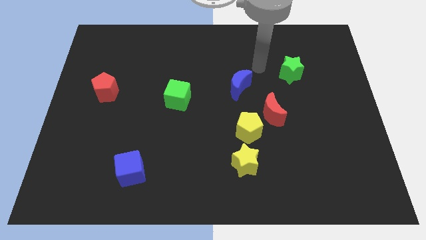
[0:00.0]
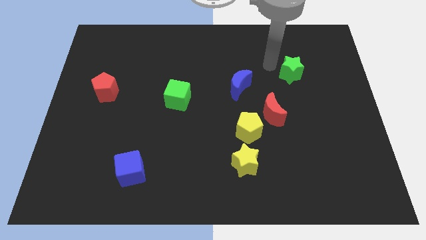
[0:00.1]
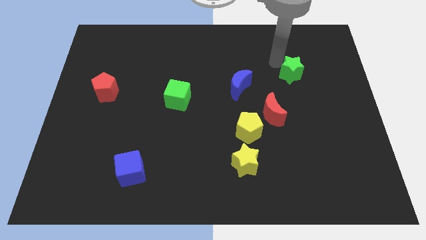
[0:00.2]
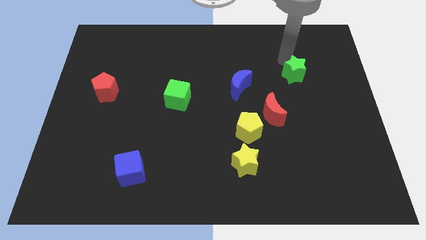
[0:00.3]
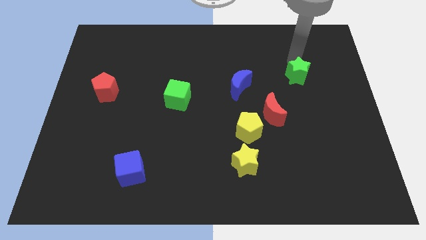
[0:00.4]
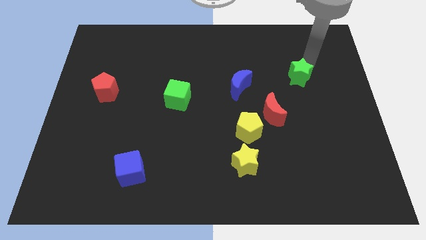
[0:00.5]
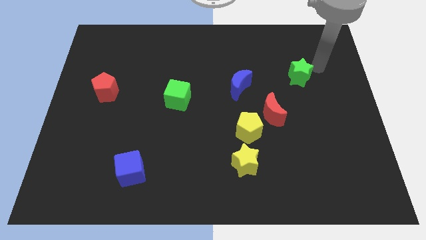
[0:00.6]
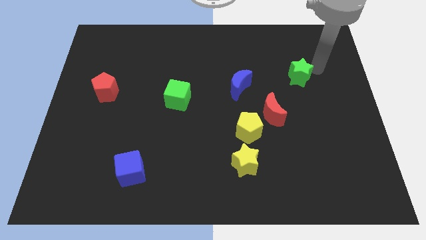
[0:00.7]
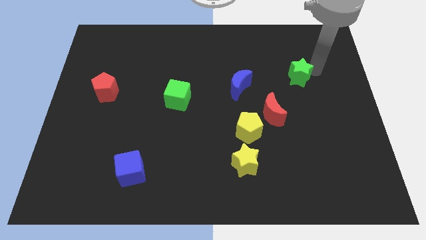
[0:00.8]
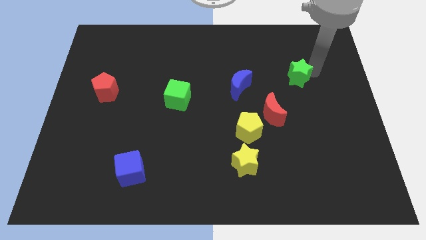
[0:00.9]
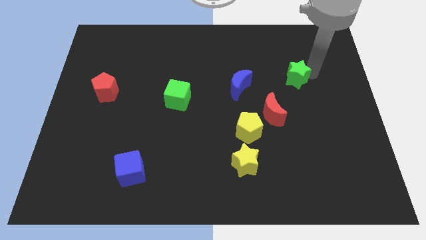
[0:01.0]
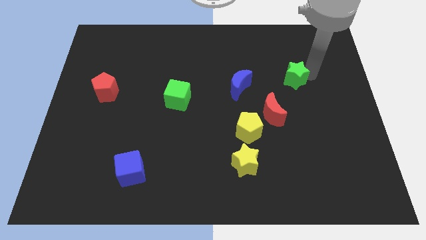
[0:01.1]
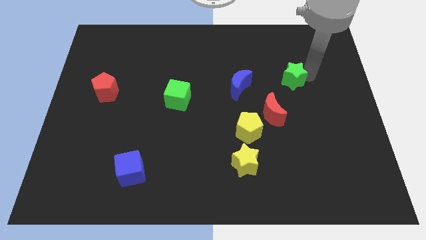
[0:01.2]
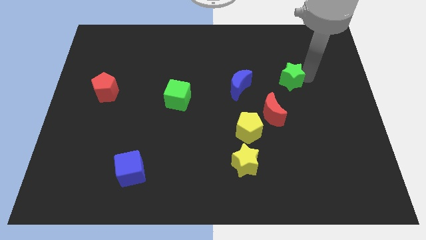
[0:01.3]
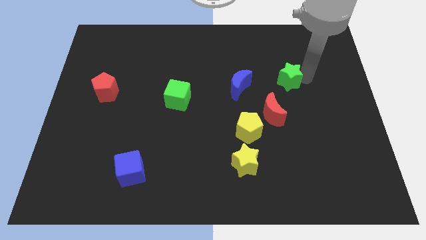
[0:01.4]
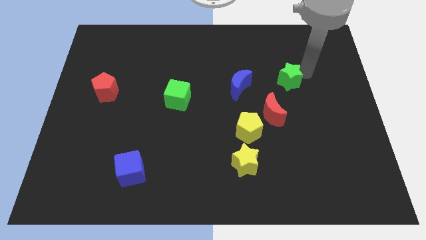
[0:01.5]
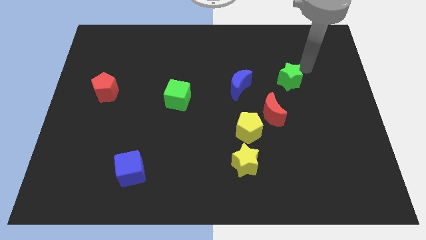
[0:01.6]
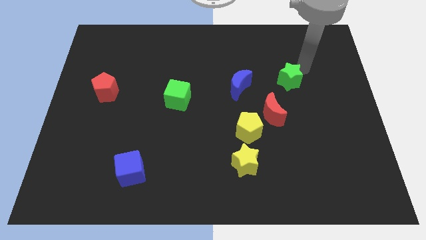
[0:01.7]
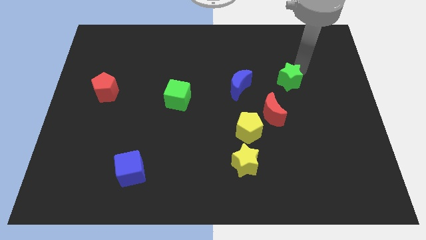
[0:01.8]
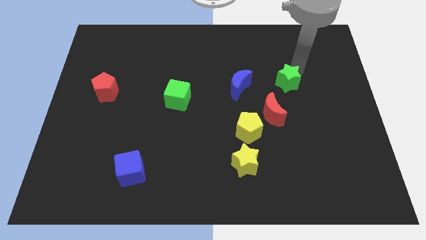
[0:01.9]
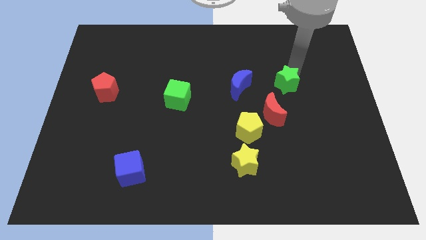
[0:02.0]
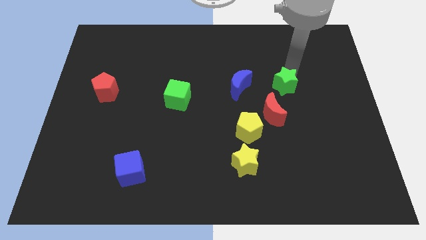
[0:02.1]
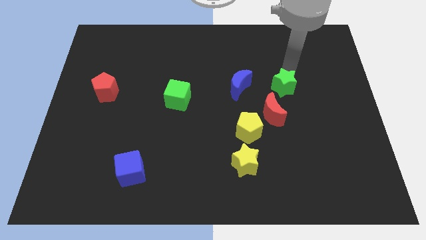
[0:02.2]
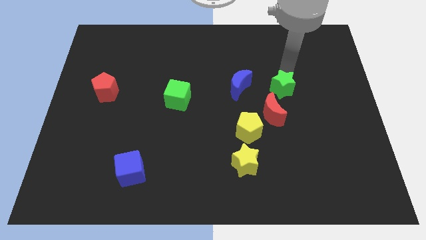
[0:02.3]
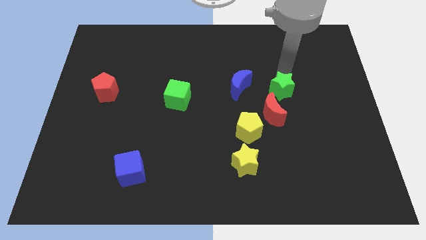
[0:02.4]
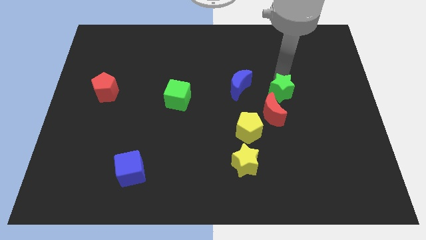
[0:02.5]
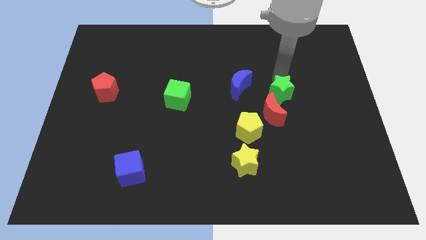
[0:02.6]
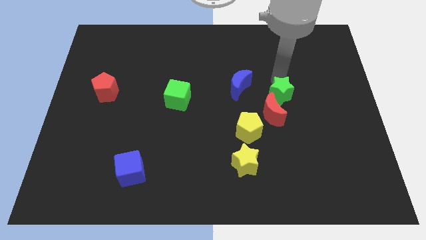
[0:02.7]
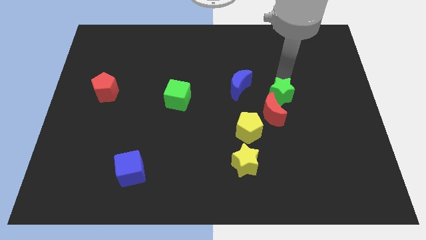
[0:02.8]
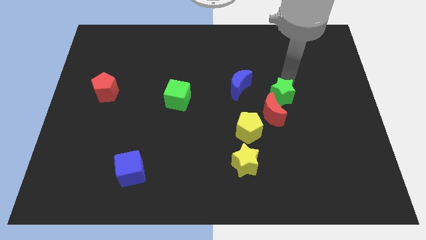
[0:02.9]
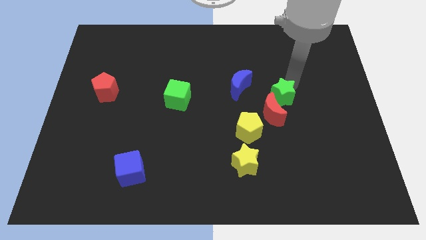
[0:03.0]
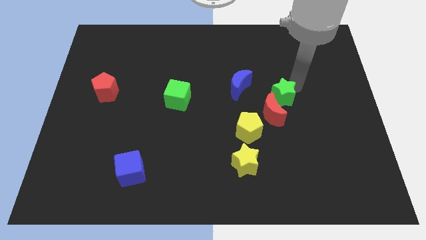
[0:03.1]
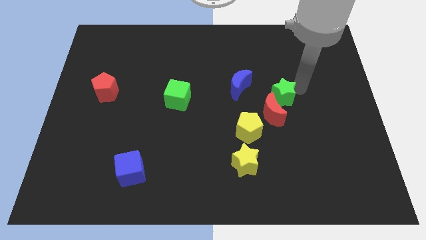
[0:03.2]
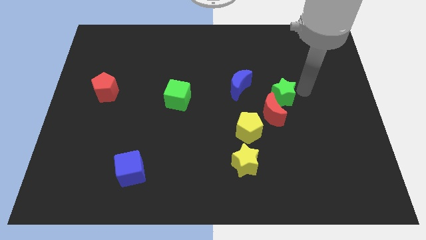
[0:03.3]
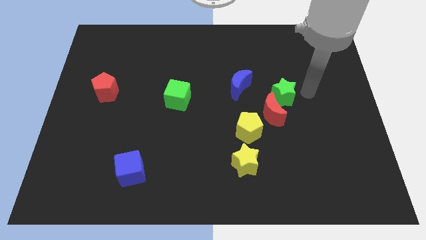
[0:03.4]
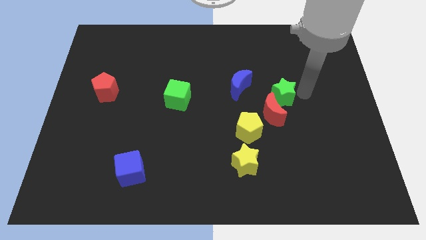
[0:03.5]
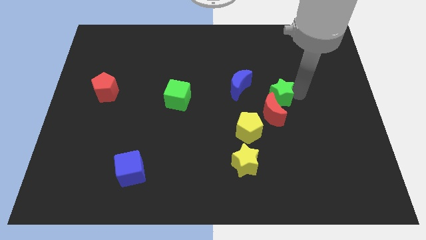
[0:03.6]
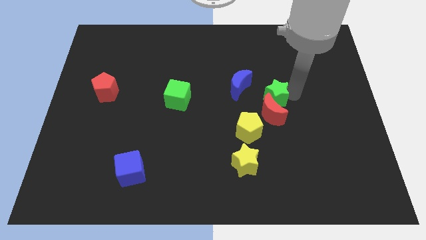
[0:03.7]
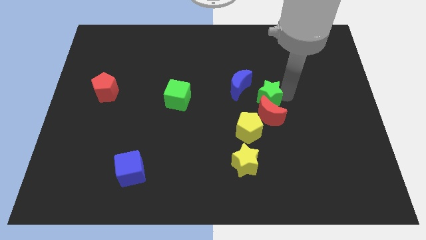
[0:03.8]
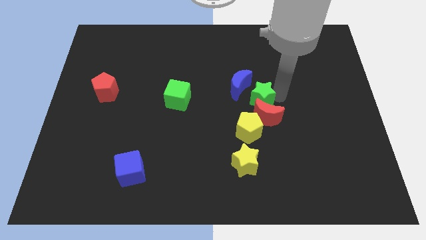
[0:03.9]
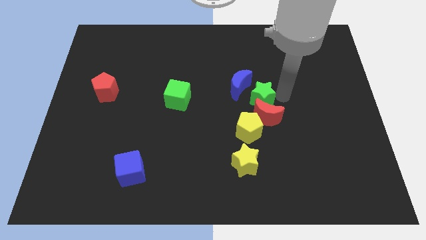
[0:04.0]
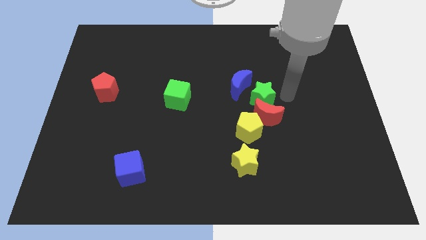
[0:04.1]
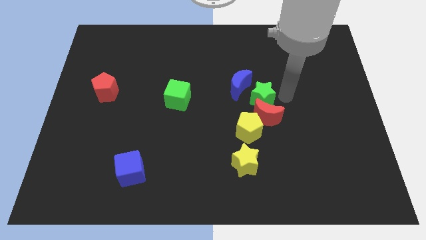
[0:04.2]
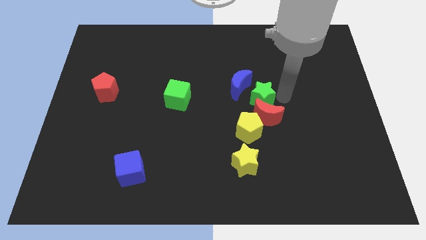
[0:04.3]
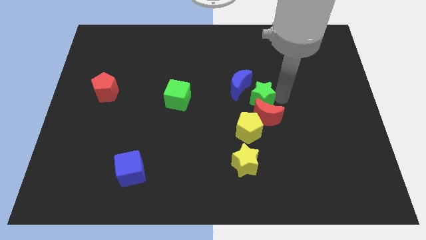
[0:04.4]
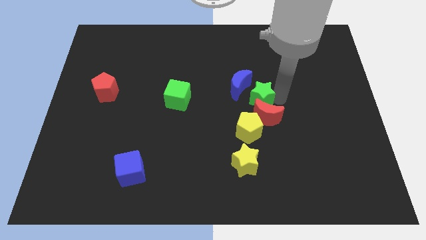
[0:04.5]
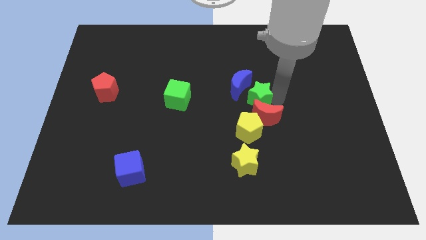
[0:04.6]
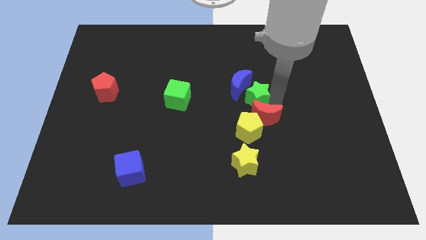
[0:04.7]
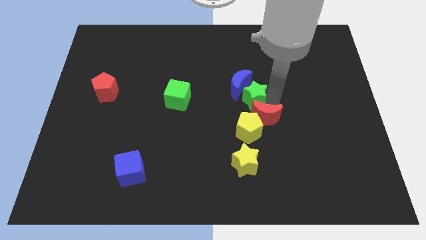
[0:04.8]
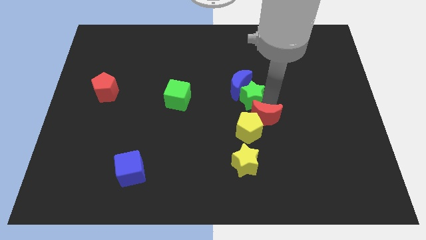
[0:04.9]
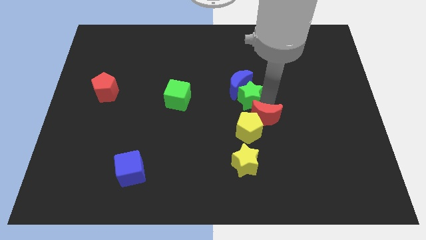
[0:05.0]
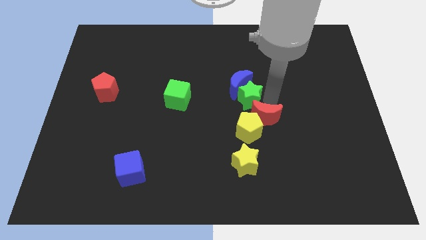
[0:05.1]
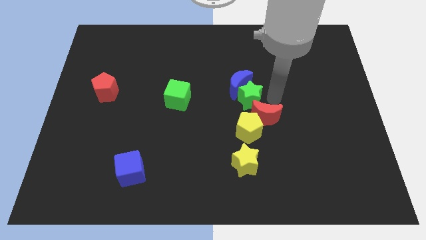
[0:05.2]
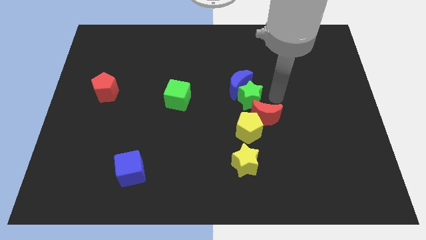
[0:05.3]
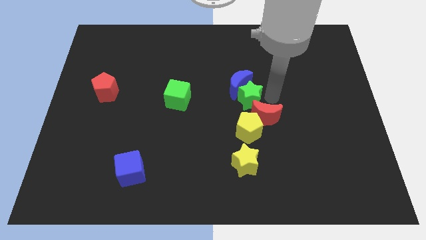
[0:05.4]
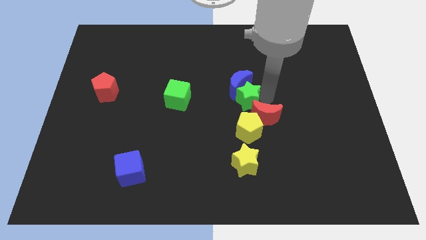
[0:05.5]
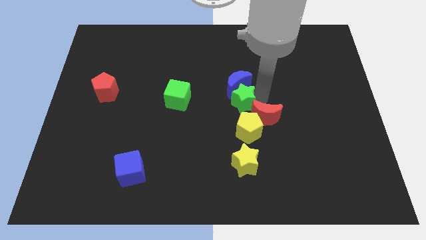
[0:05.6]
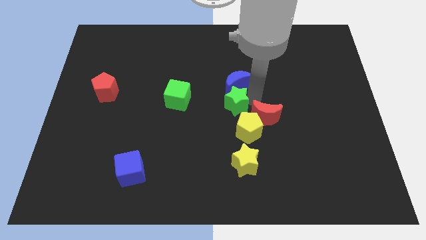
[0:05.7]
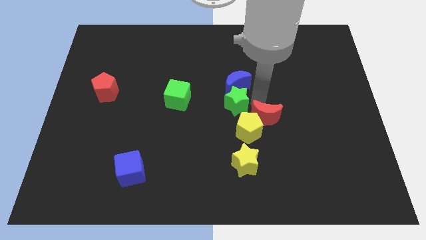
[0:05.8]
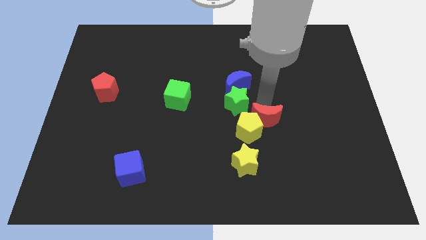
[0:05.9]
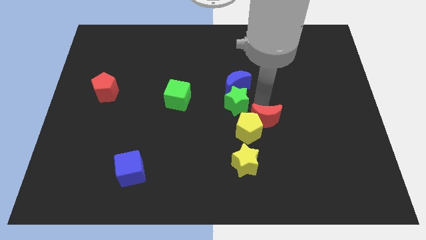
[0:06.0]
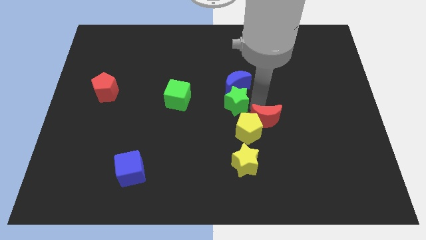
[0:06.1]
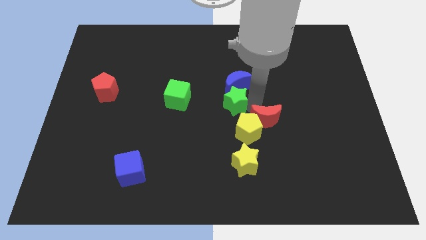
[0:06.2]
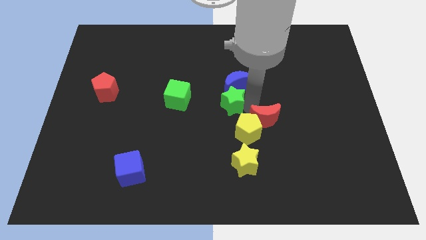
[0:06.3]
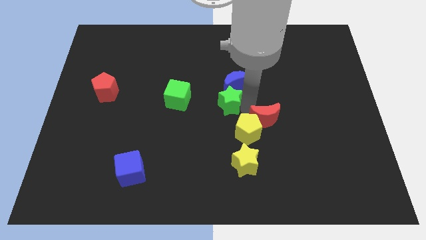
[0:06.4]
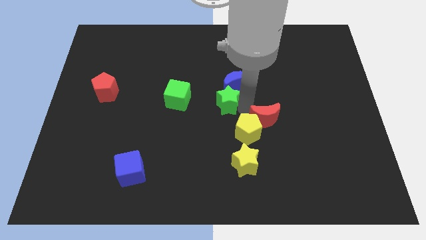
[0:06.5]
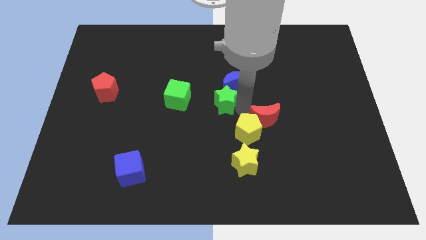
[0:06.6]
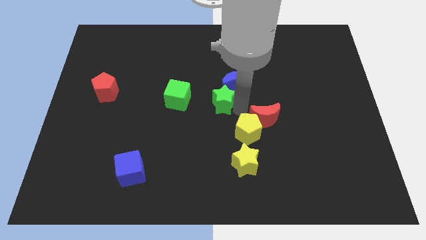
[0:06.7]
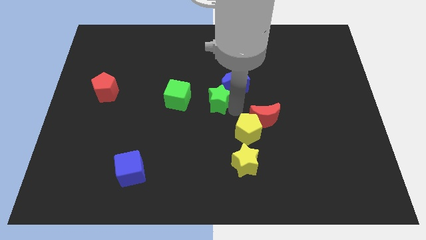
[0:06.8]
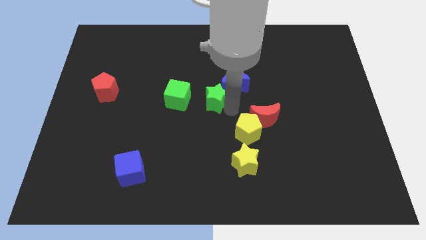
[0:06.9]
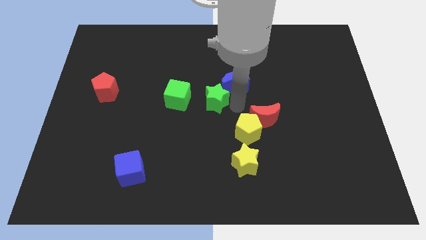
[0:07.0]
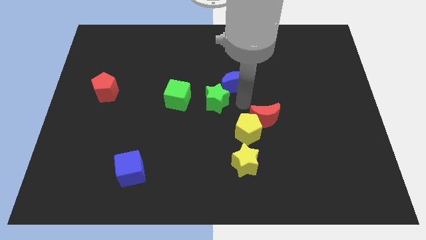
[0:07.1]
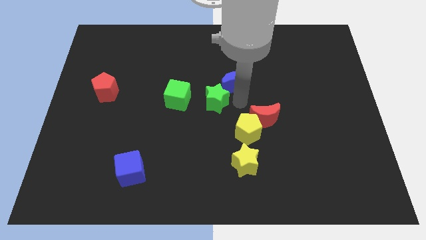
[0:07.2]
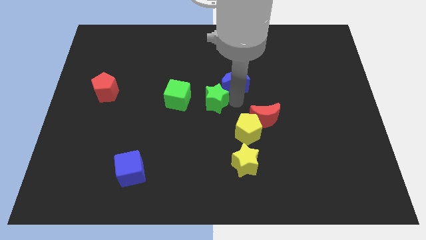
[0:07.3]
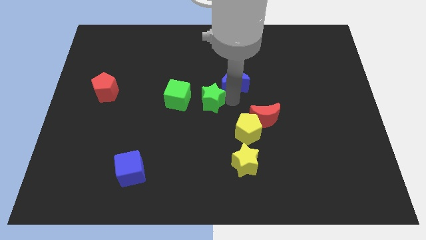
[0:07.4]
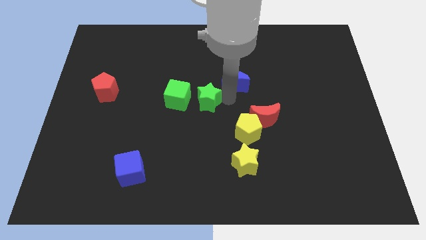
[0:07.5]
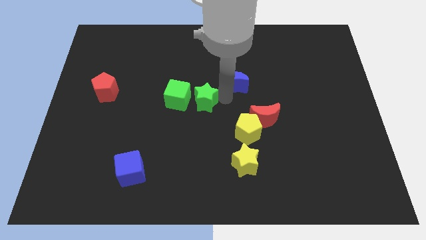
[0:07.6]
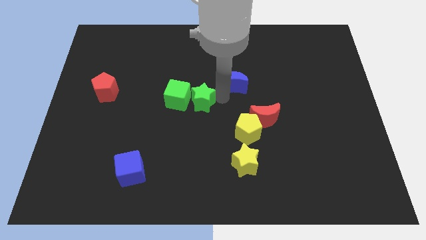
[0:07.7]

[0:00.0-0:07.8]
push the green star close to the green cube
